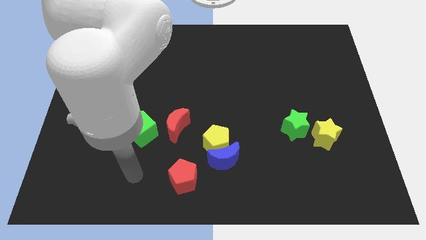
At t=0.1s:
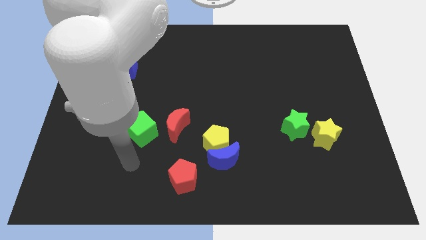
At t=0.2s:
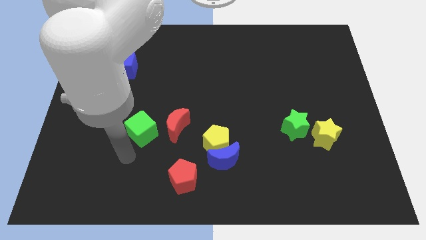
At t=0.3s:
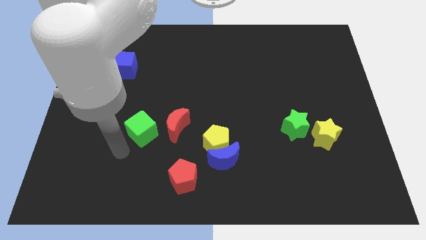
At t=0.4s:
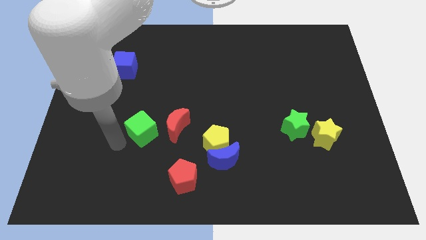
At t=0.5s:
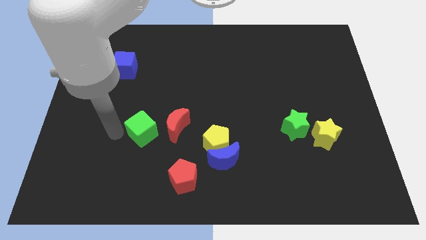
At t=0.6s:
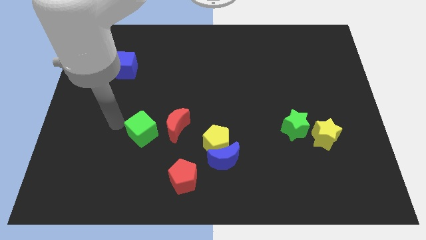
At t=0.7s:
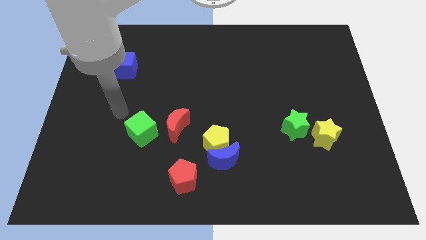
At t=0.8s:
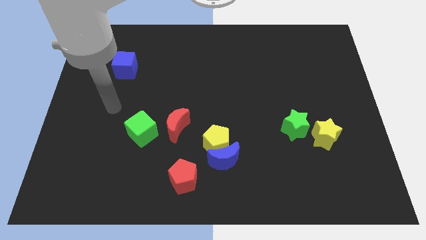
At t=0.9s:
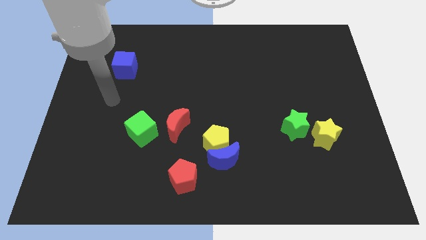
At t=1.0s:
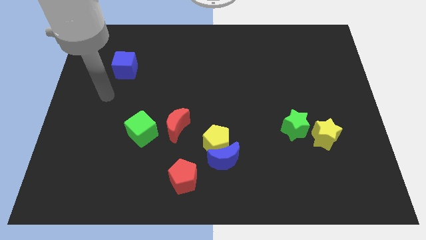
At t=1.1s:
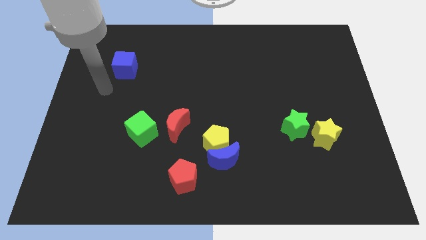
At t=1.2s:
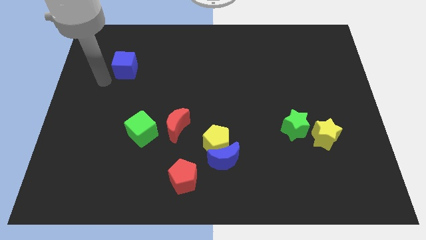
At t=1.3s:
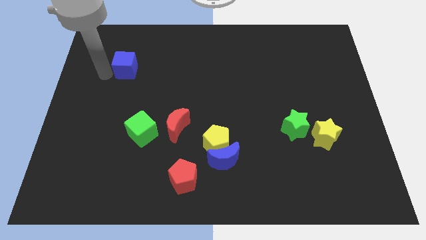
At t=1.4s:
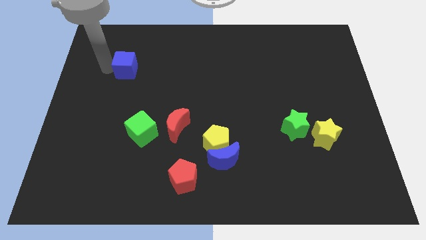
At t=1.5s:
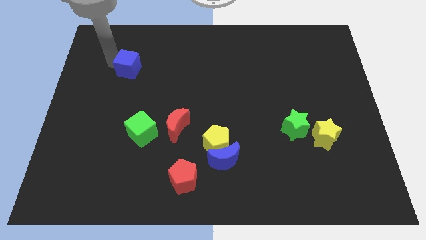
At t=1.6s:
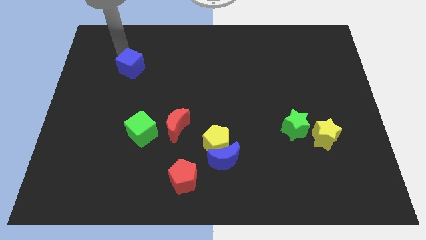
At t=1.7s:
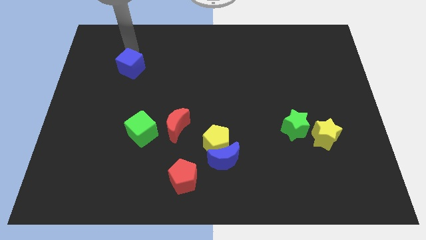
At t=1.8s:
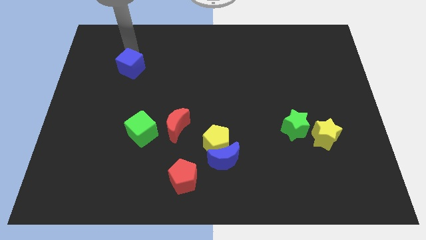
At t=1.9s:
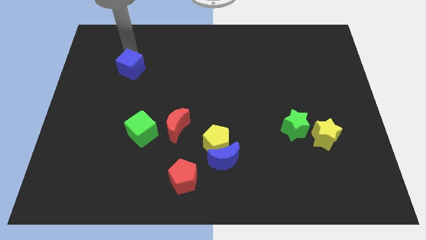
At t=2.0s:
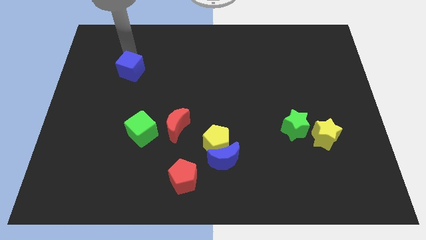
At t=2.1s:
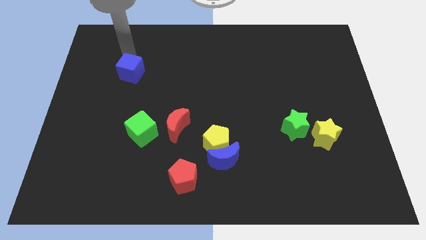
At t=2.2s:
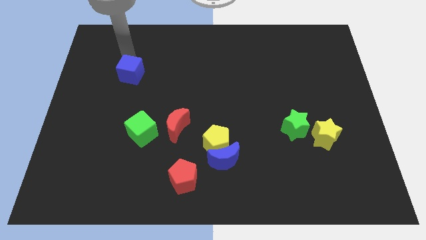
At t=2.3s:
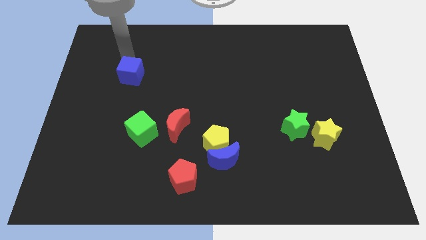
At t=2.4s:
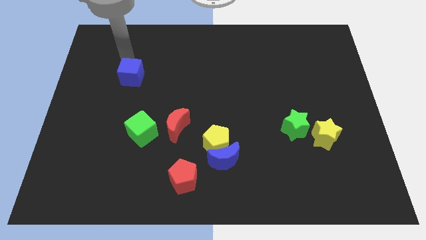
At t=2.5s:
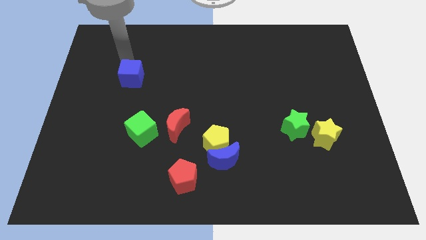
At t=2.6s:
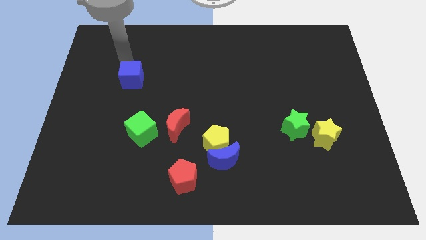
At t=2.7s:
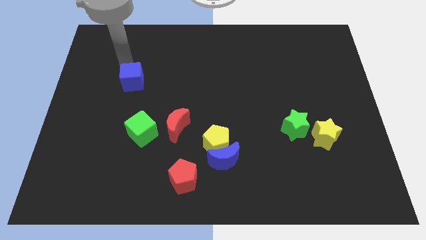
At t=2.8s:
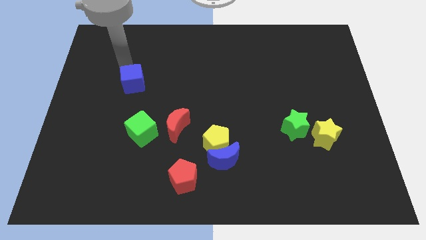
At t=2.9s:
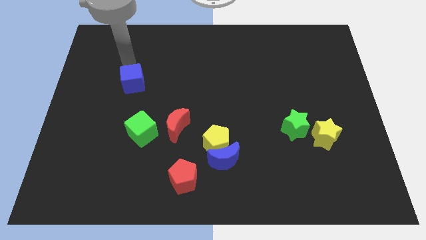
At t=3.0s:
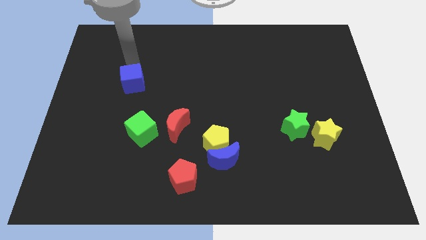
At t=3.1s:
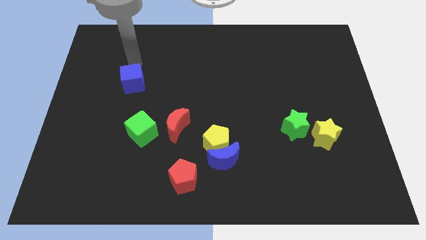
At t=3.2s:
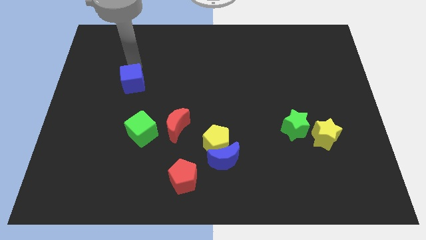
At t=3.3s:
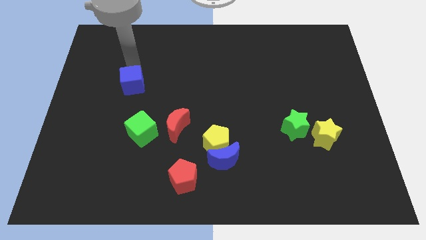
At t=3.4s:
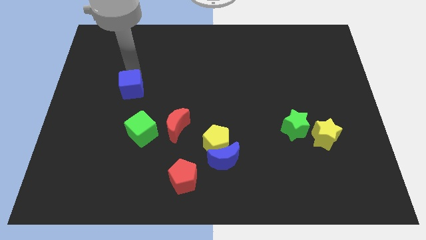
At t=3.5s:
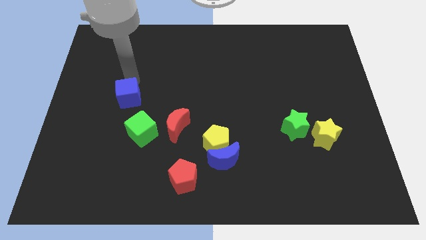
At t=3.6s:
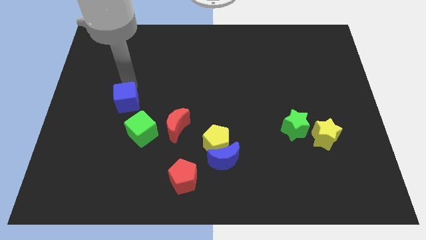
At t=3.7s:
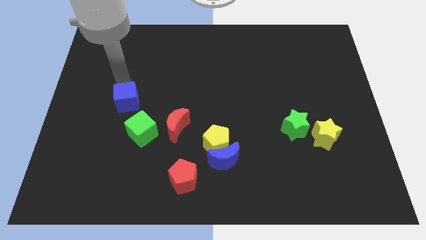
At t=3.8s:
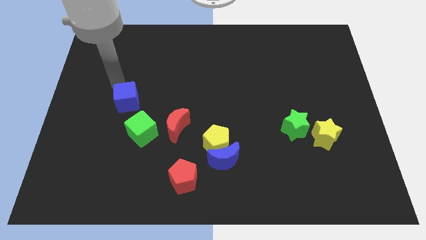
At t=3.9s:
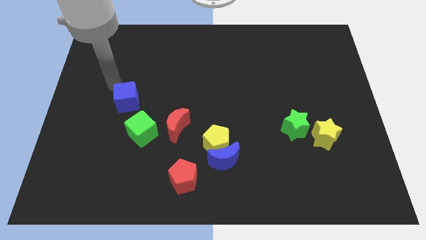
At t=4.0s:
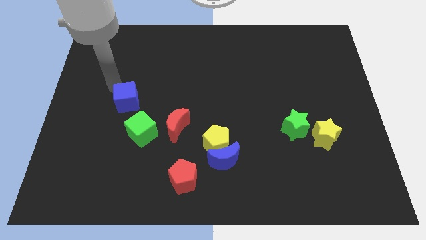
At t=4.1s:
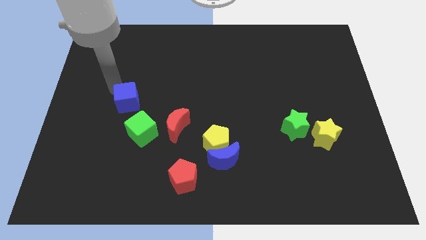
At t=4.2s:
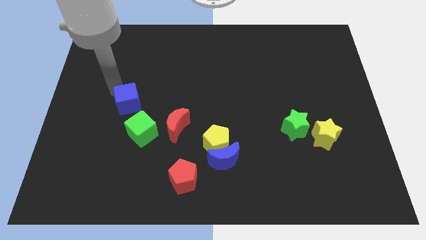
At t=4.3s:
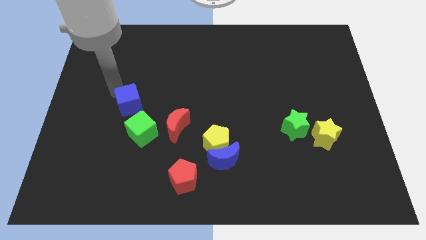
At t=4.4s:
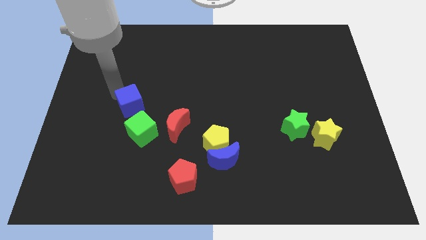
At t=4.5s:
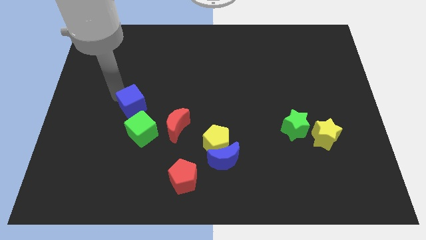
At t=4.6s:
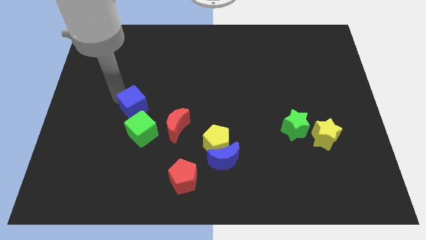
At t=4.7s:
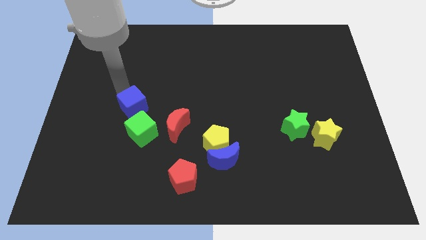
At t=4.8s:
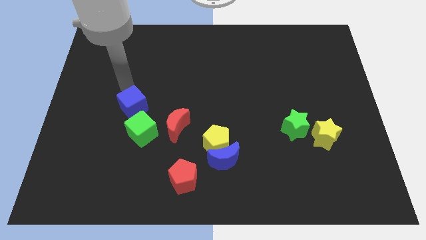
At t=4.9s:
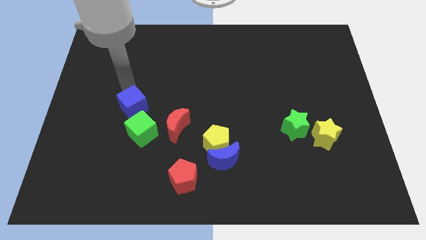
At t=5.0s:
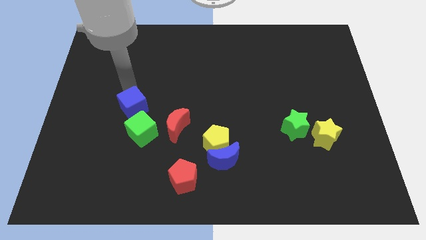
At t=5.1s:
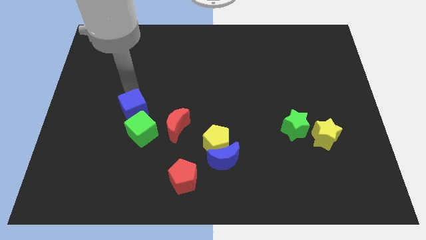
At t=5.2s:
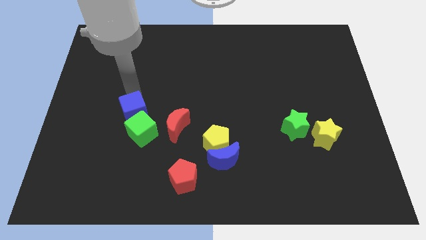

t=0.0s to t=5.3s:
put the blue cube next to the green cube

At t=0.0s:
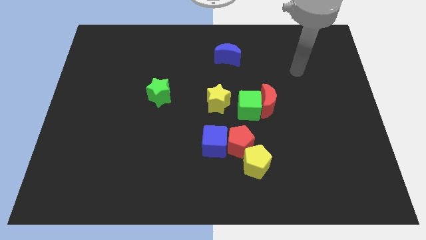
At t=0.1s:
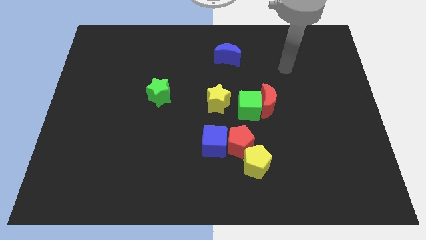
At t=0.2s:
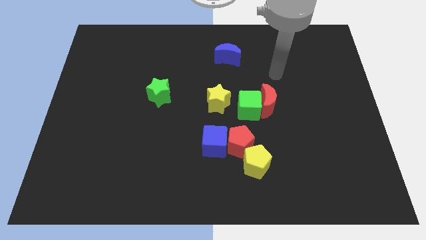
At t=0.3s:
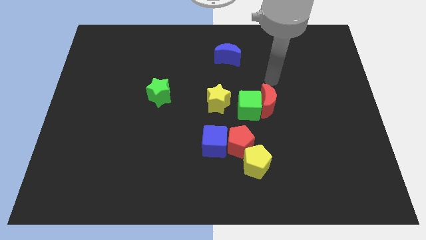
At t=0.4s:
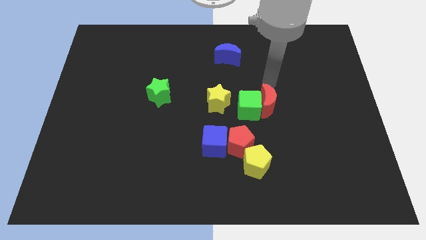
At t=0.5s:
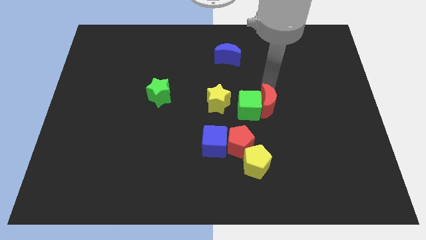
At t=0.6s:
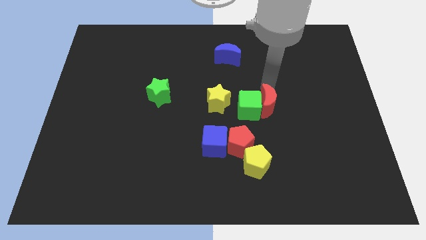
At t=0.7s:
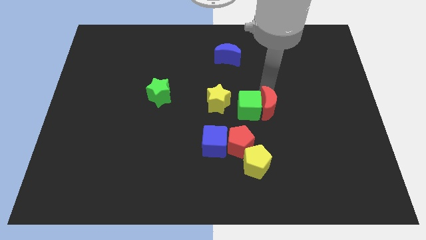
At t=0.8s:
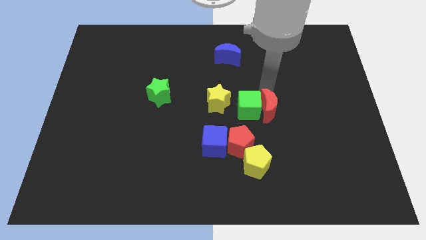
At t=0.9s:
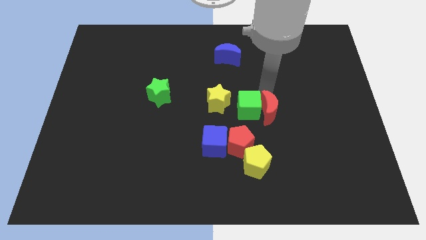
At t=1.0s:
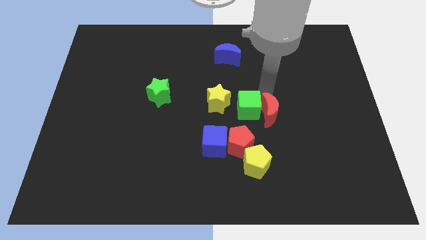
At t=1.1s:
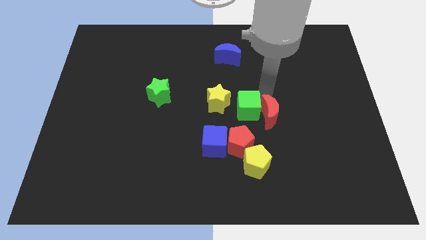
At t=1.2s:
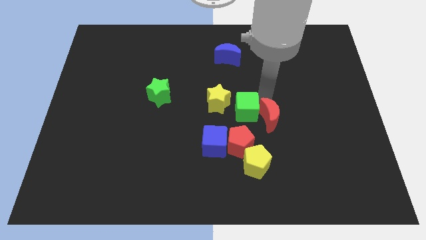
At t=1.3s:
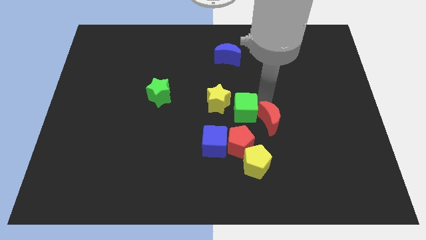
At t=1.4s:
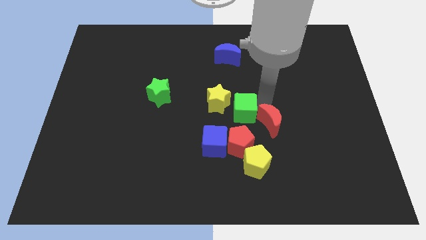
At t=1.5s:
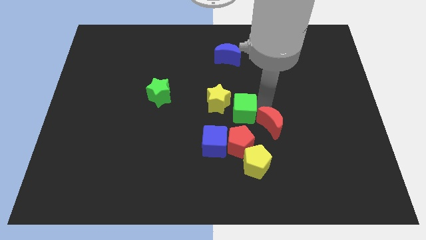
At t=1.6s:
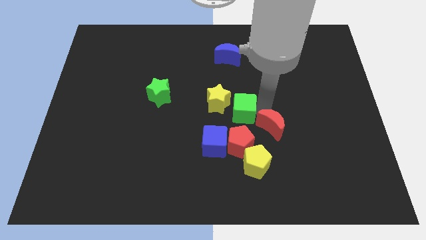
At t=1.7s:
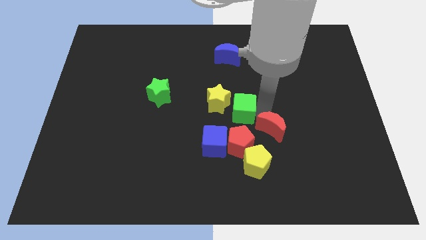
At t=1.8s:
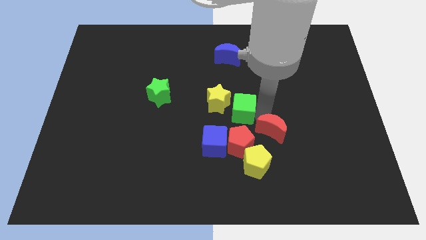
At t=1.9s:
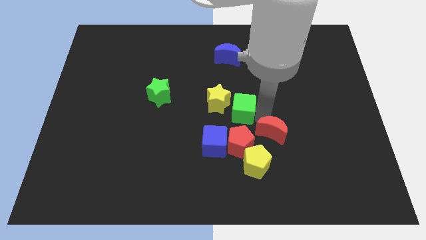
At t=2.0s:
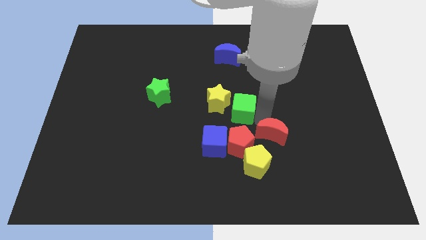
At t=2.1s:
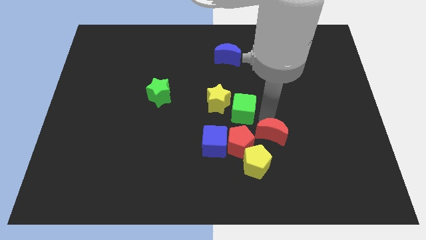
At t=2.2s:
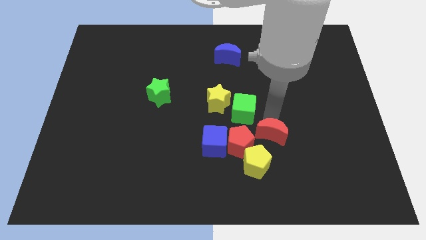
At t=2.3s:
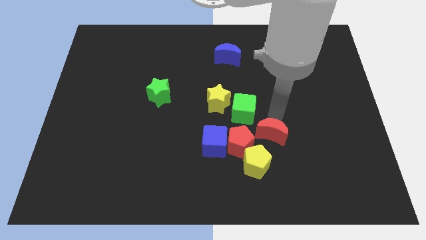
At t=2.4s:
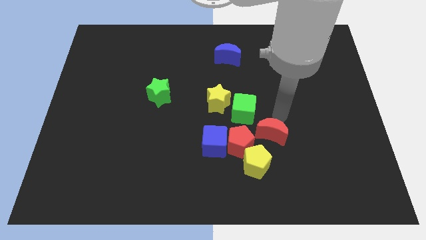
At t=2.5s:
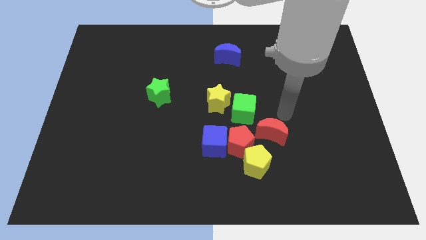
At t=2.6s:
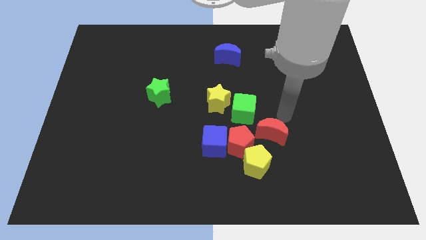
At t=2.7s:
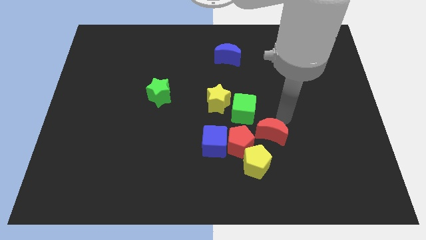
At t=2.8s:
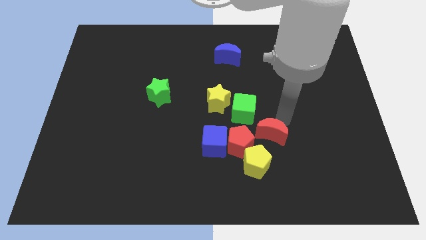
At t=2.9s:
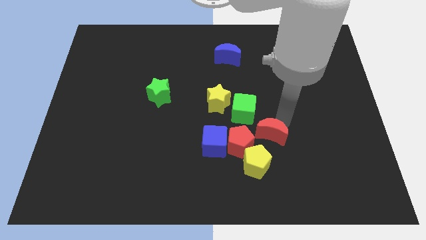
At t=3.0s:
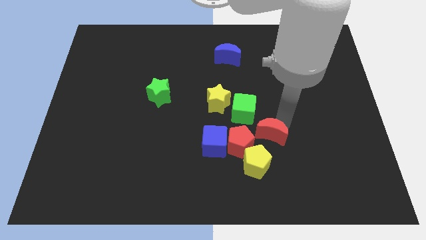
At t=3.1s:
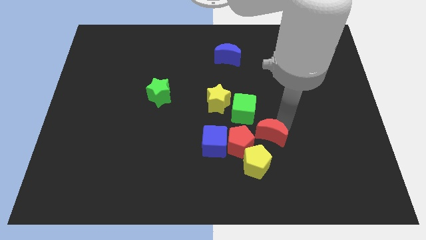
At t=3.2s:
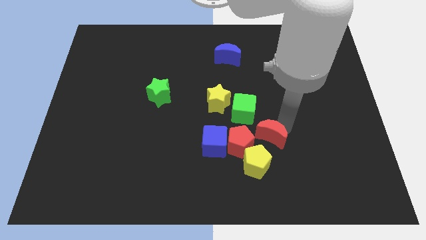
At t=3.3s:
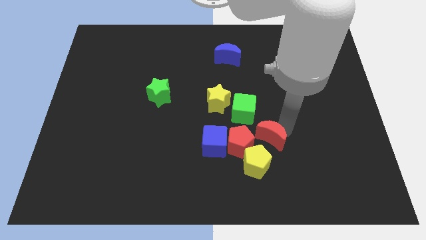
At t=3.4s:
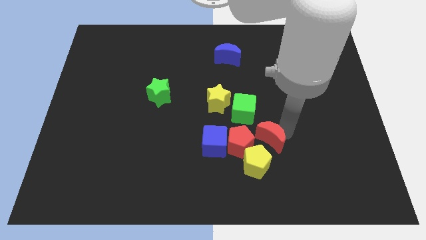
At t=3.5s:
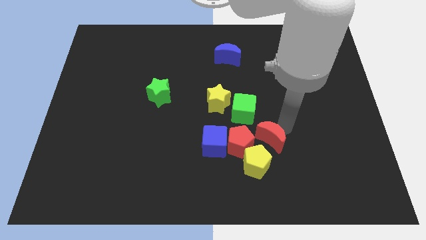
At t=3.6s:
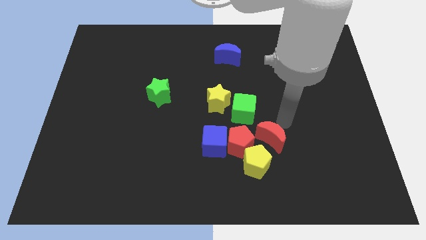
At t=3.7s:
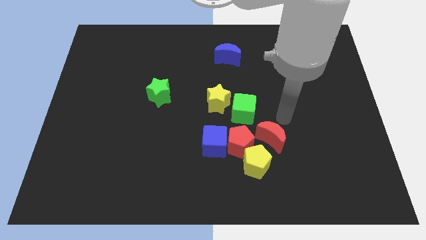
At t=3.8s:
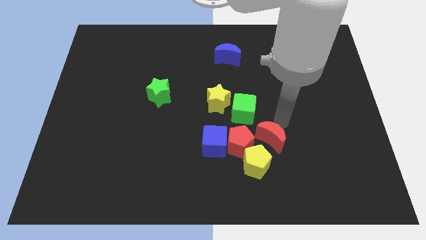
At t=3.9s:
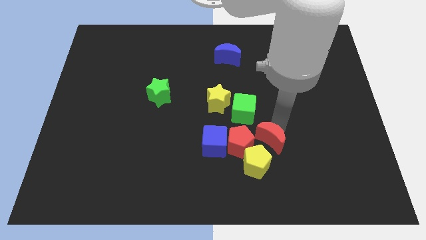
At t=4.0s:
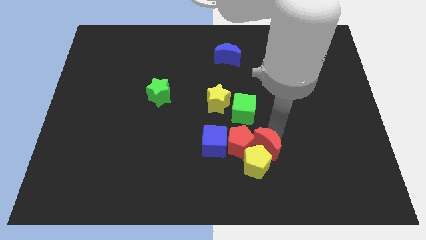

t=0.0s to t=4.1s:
move the red moon towards the yellow pentagon
